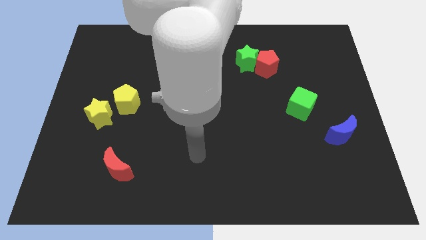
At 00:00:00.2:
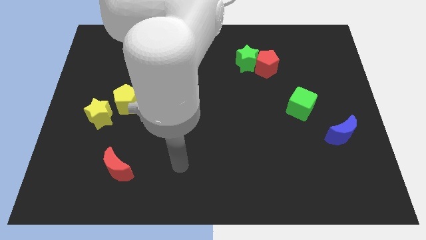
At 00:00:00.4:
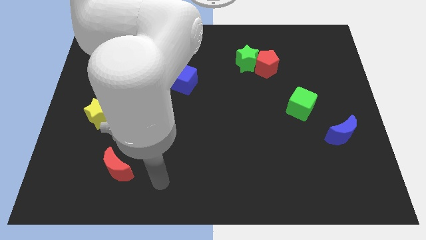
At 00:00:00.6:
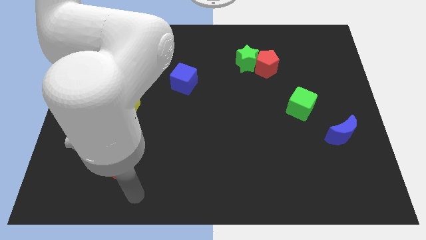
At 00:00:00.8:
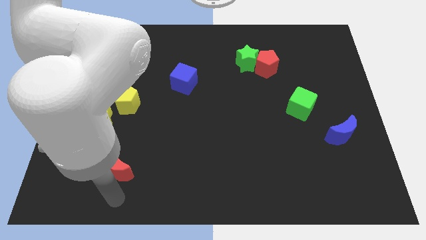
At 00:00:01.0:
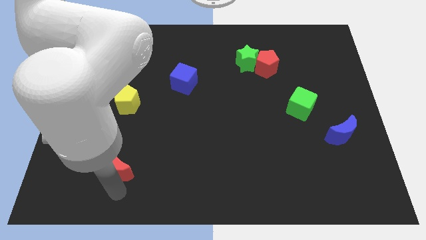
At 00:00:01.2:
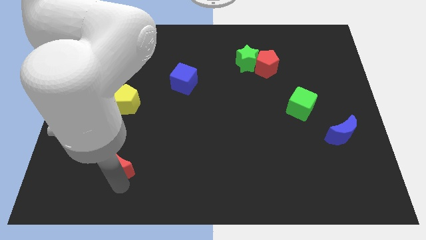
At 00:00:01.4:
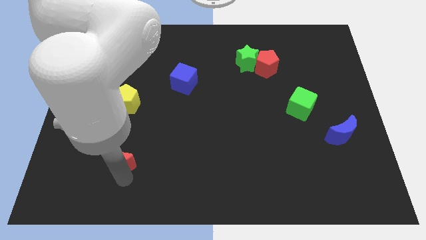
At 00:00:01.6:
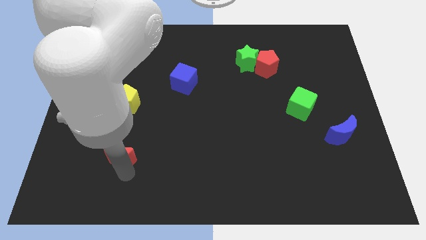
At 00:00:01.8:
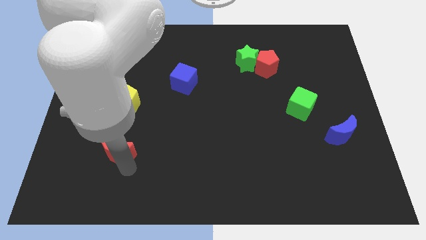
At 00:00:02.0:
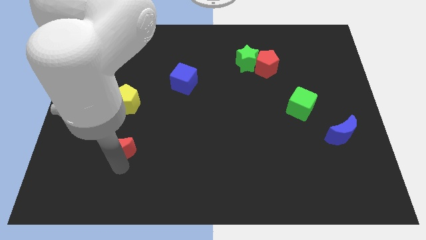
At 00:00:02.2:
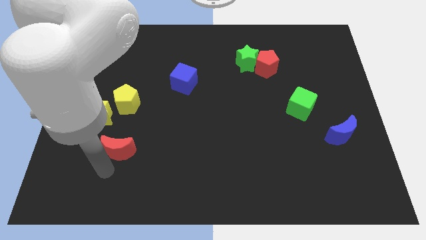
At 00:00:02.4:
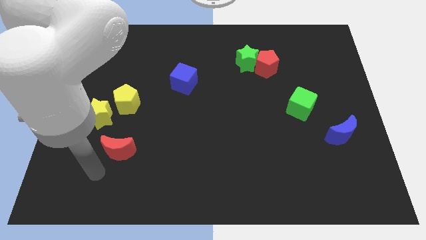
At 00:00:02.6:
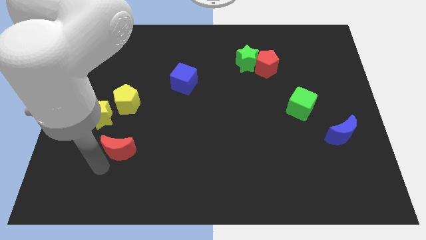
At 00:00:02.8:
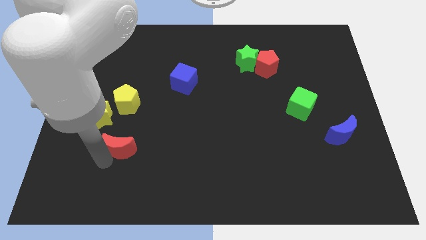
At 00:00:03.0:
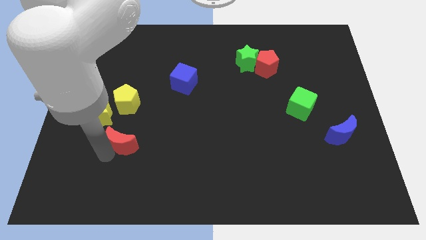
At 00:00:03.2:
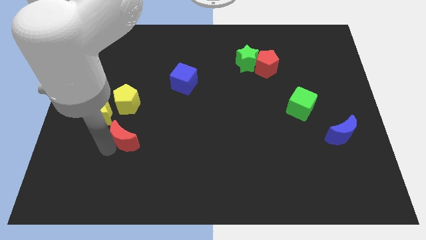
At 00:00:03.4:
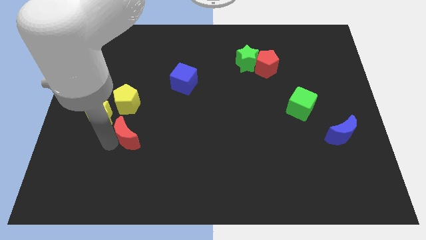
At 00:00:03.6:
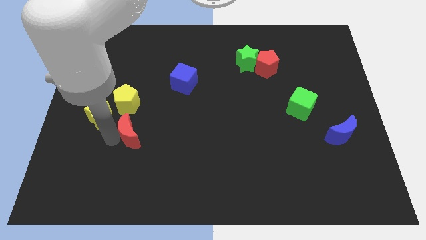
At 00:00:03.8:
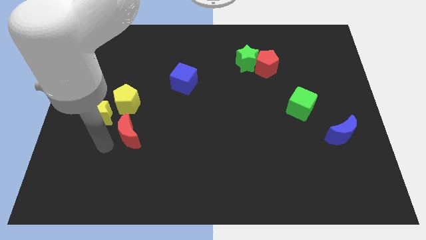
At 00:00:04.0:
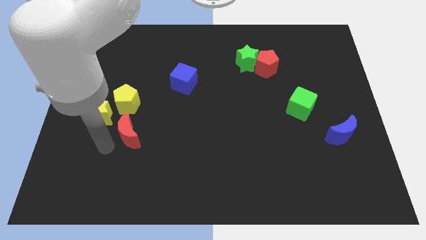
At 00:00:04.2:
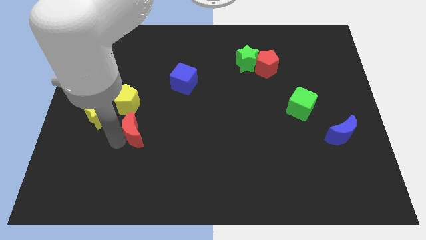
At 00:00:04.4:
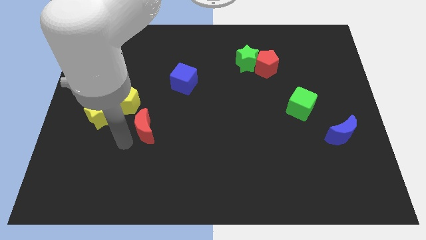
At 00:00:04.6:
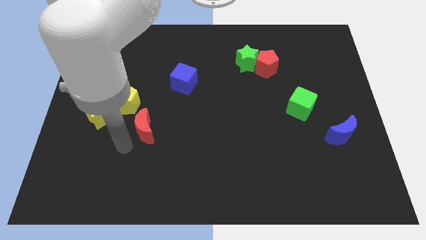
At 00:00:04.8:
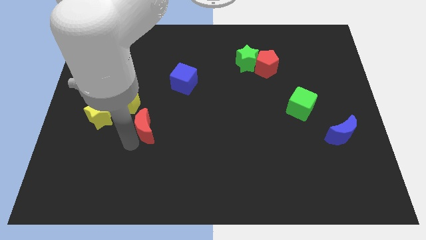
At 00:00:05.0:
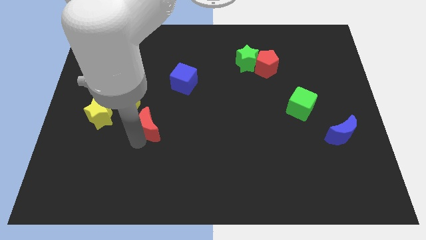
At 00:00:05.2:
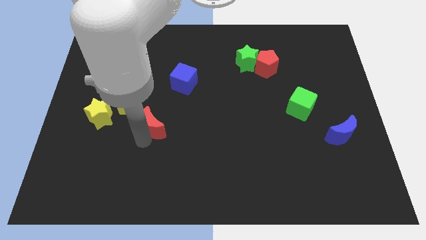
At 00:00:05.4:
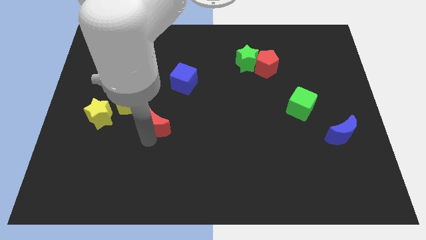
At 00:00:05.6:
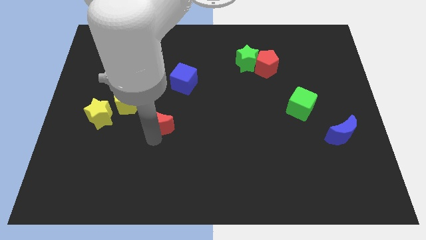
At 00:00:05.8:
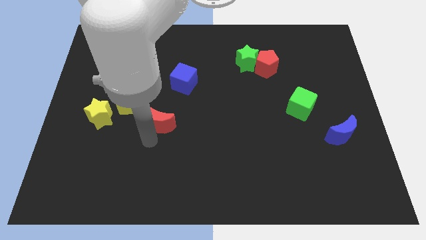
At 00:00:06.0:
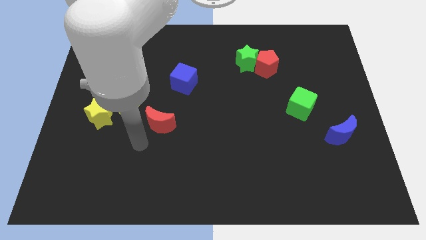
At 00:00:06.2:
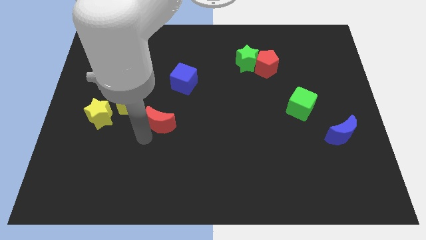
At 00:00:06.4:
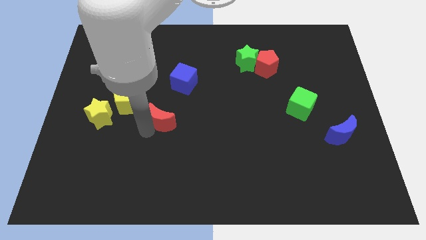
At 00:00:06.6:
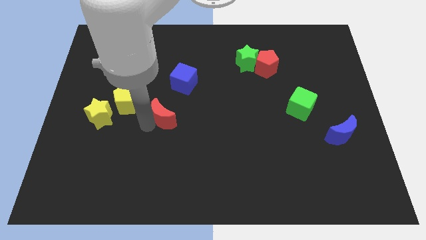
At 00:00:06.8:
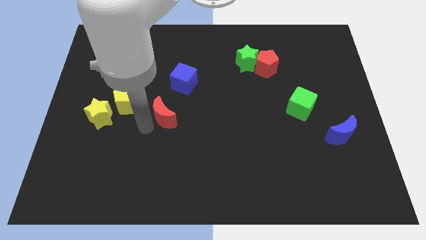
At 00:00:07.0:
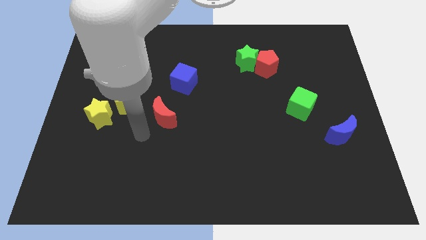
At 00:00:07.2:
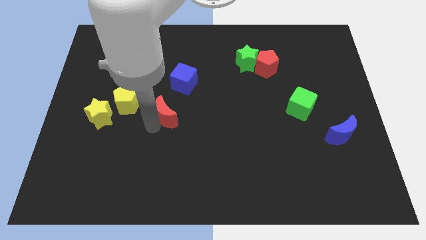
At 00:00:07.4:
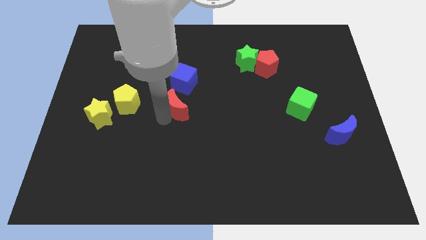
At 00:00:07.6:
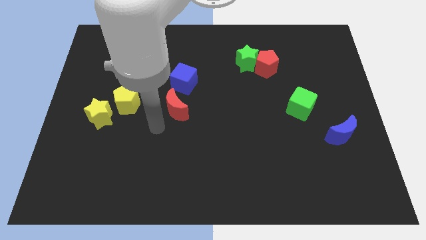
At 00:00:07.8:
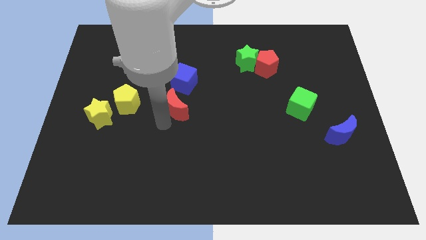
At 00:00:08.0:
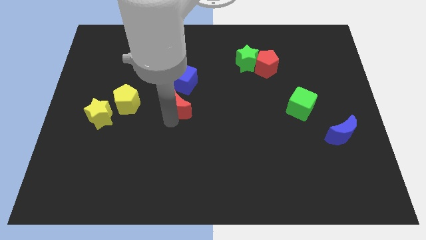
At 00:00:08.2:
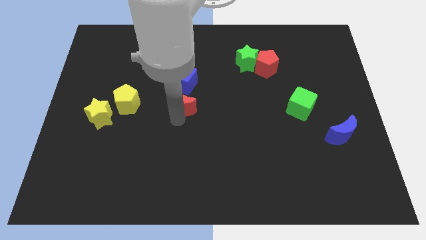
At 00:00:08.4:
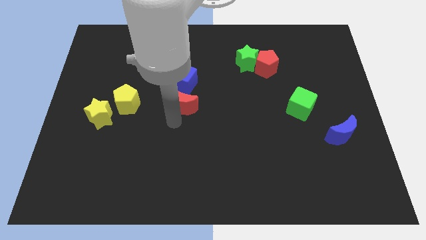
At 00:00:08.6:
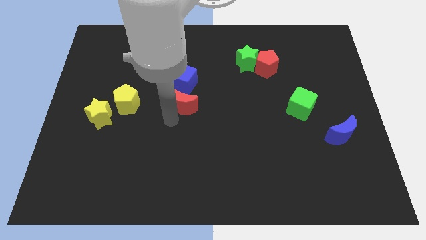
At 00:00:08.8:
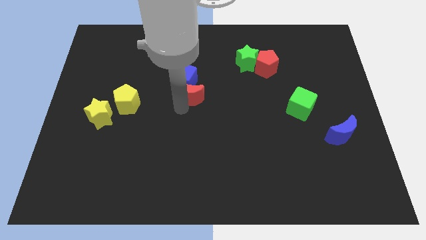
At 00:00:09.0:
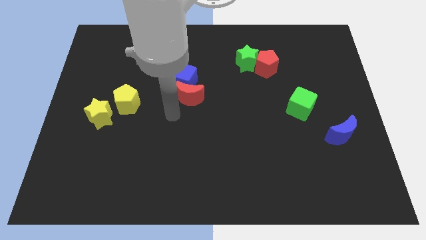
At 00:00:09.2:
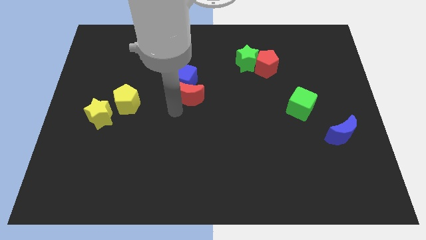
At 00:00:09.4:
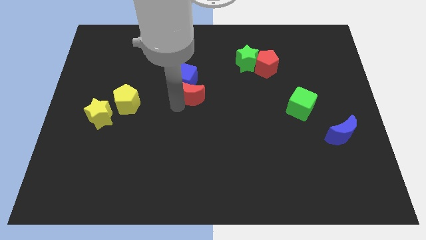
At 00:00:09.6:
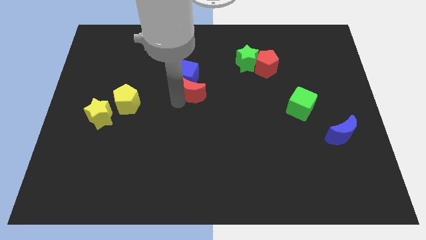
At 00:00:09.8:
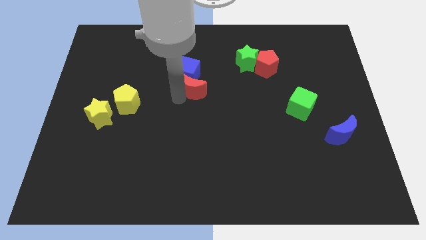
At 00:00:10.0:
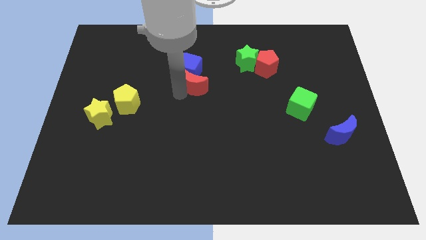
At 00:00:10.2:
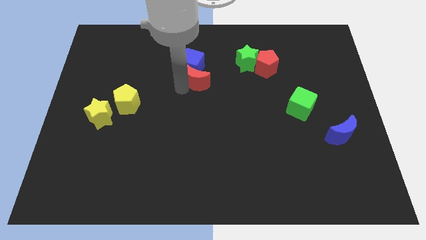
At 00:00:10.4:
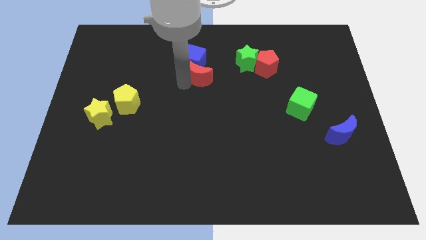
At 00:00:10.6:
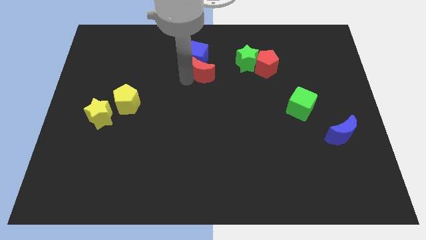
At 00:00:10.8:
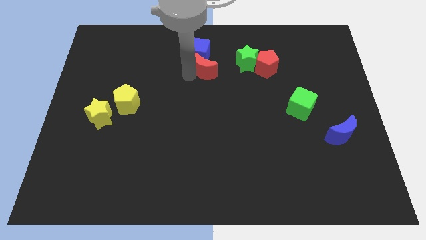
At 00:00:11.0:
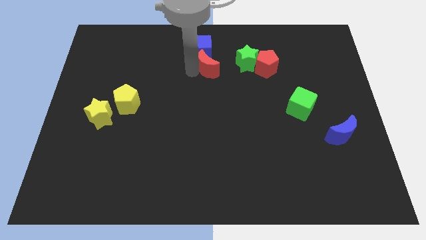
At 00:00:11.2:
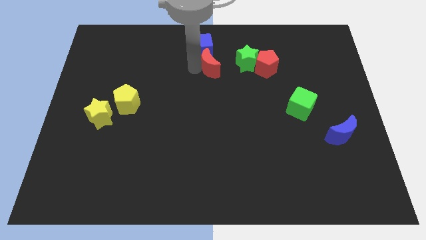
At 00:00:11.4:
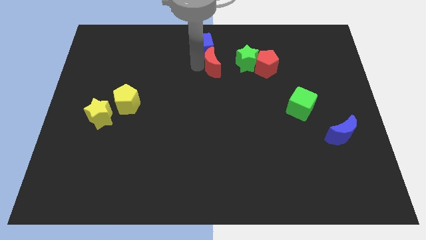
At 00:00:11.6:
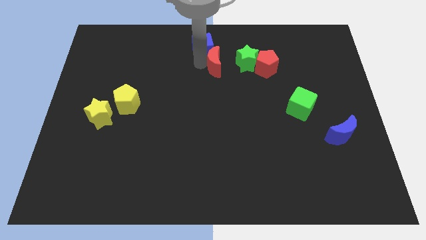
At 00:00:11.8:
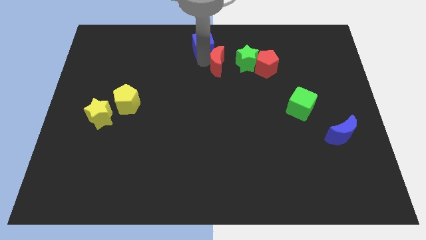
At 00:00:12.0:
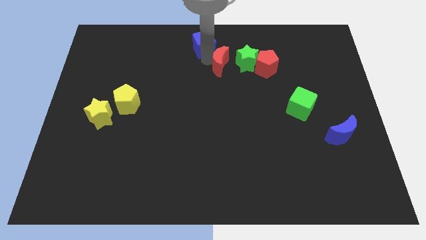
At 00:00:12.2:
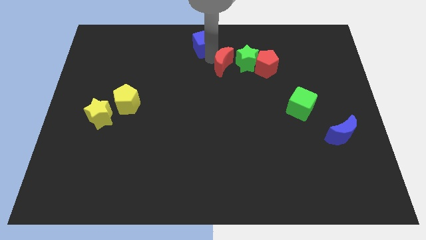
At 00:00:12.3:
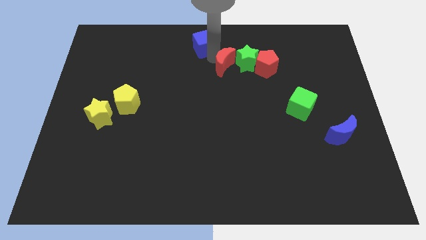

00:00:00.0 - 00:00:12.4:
push the red moon close to the green star

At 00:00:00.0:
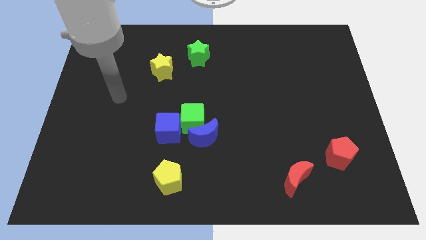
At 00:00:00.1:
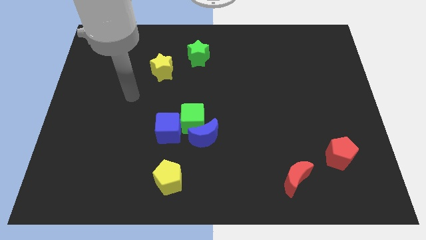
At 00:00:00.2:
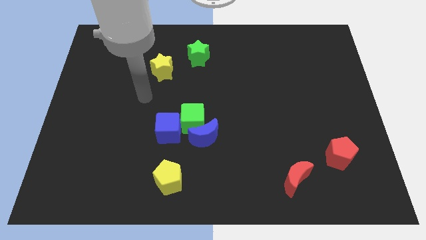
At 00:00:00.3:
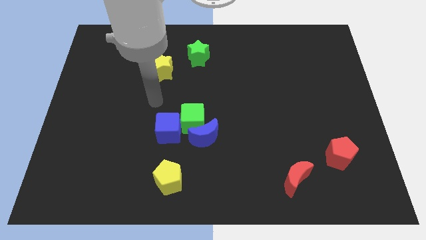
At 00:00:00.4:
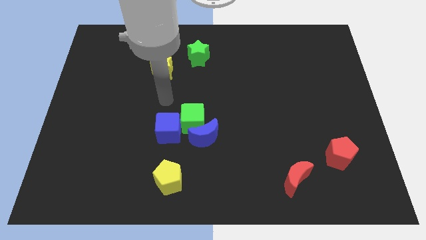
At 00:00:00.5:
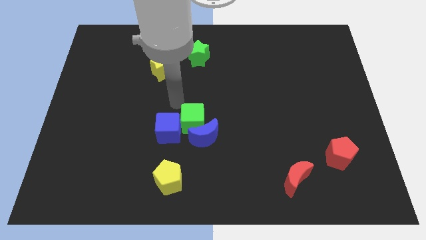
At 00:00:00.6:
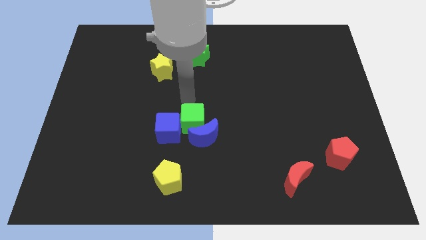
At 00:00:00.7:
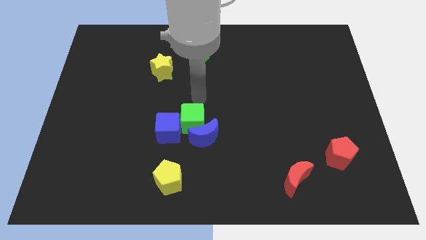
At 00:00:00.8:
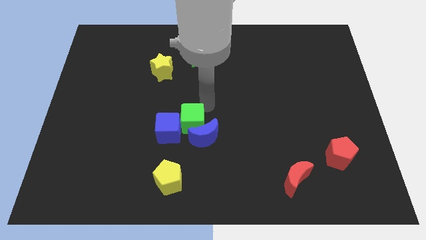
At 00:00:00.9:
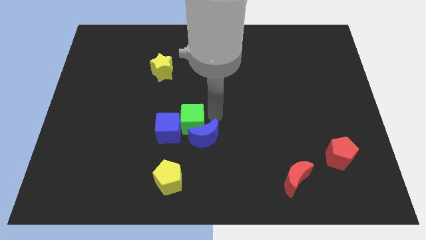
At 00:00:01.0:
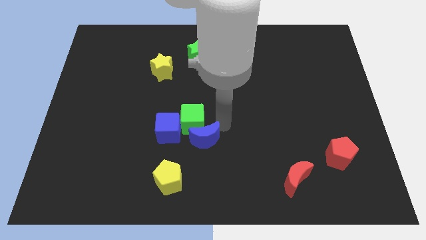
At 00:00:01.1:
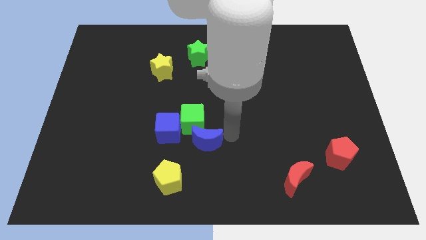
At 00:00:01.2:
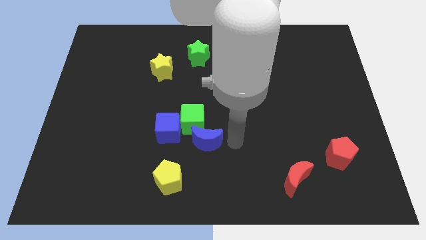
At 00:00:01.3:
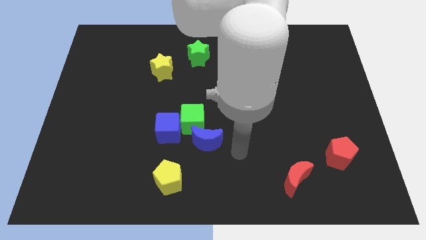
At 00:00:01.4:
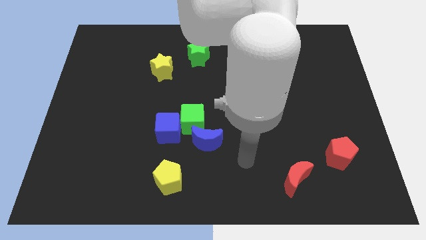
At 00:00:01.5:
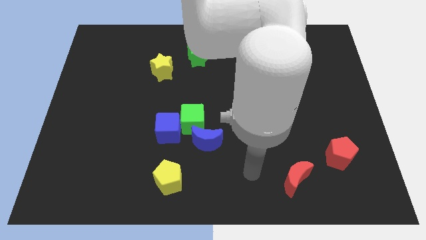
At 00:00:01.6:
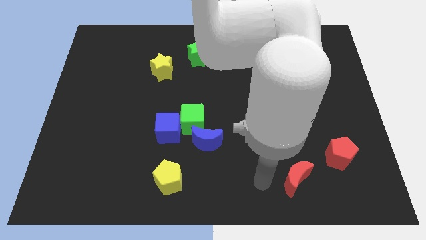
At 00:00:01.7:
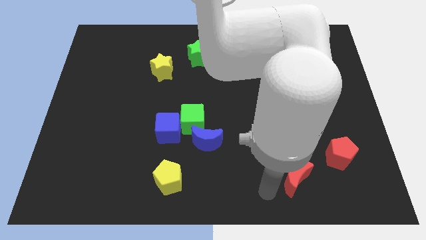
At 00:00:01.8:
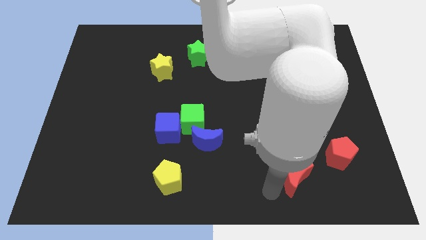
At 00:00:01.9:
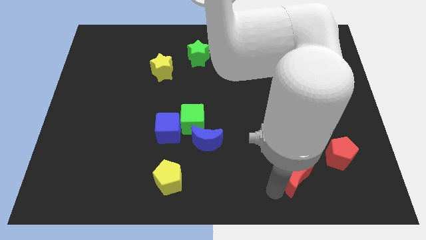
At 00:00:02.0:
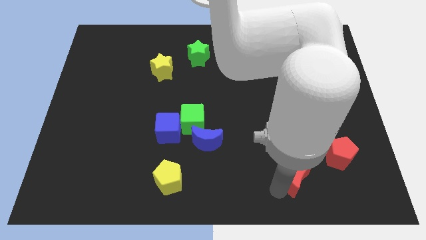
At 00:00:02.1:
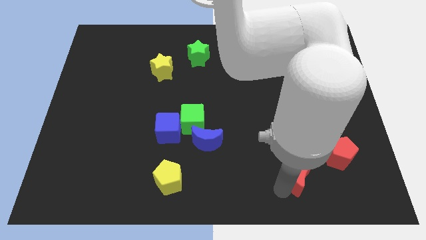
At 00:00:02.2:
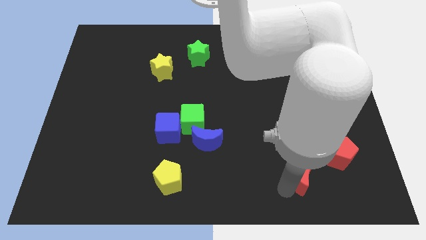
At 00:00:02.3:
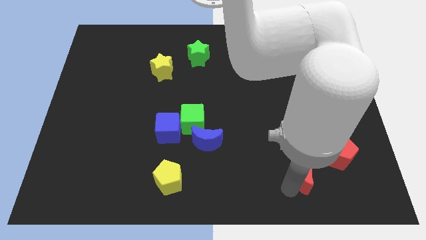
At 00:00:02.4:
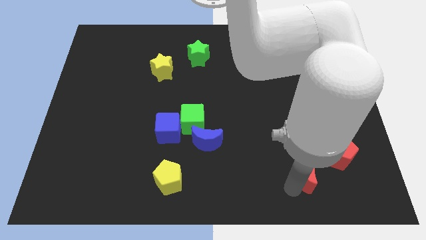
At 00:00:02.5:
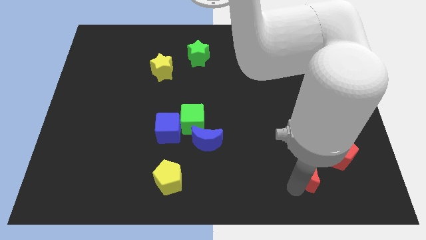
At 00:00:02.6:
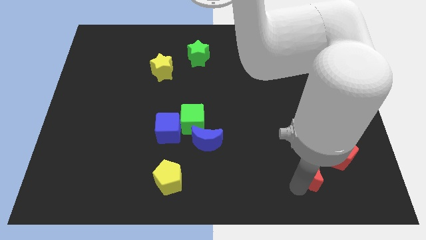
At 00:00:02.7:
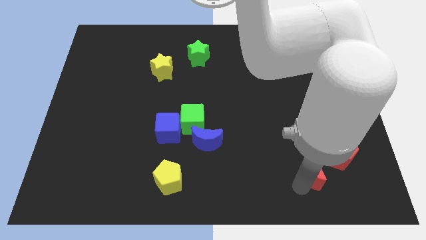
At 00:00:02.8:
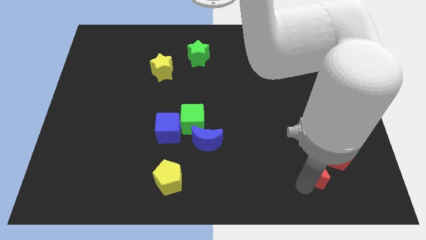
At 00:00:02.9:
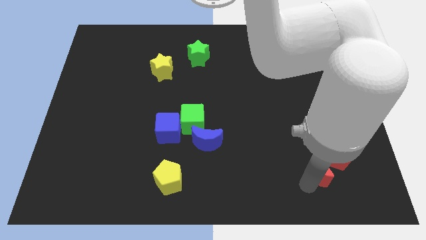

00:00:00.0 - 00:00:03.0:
put the red moon close to the red pentagon
